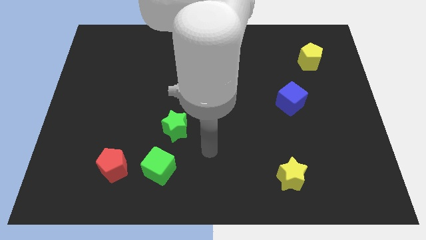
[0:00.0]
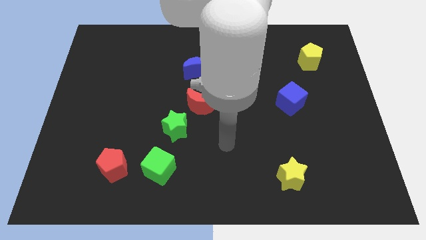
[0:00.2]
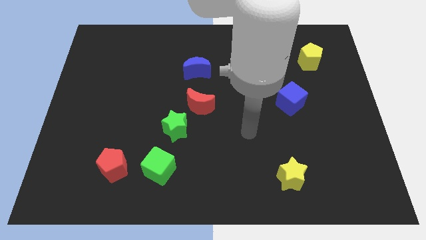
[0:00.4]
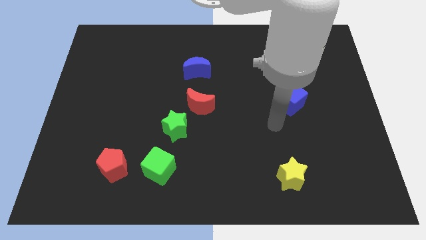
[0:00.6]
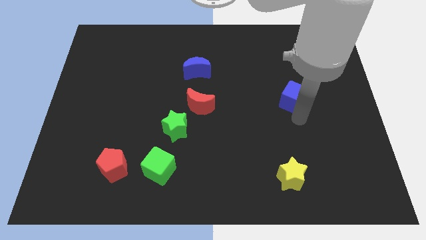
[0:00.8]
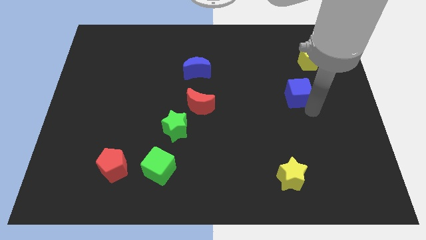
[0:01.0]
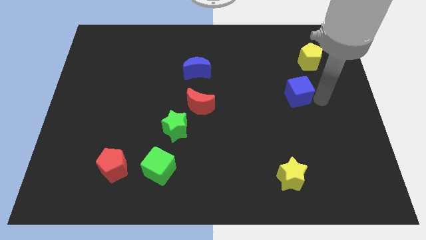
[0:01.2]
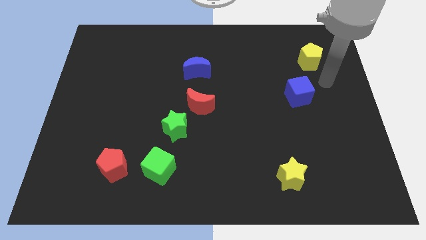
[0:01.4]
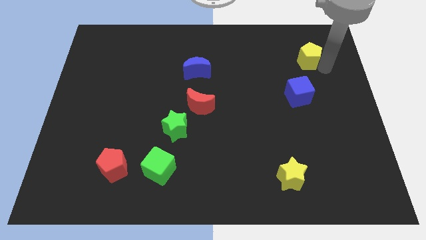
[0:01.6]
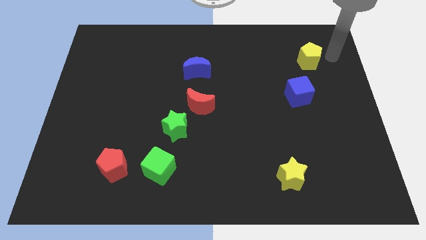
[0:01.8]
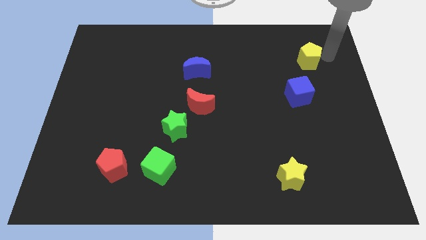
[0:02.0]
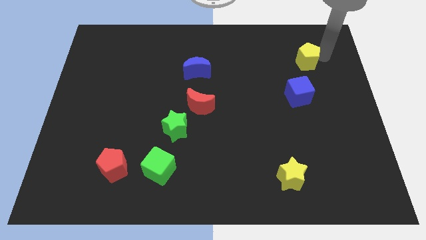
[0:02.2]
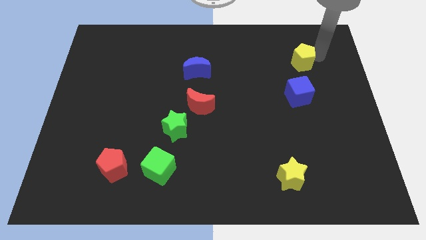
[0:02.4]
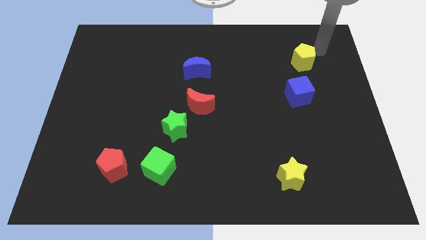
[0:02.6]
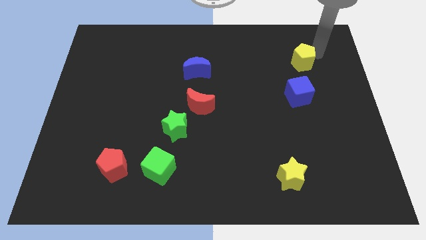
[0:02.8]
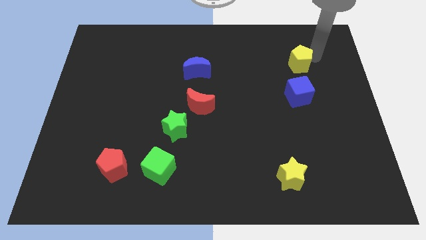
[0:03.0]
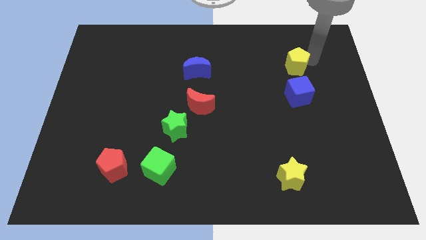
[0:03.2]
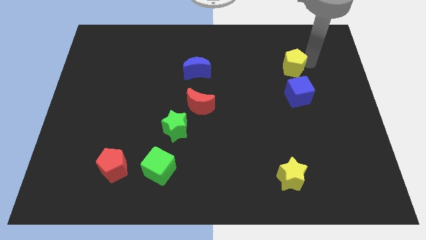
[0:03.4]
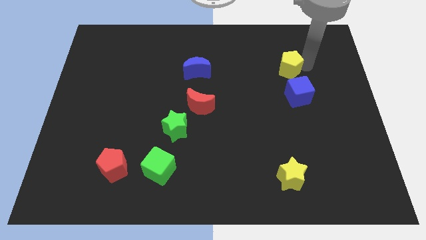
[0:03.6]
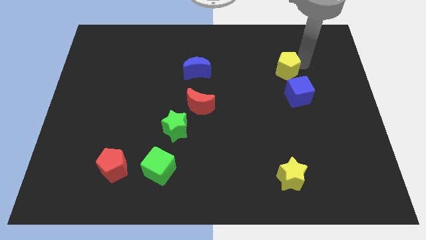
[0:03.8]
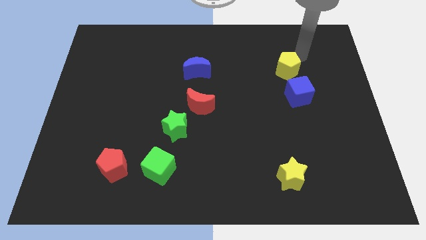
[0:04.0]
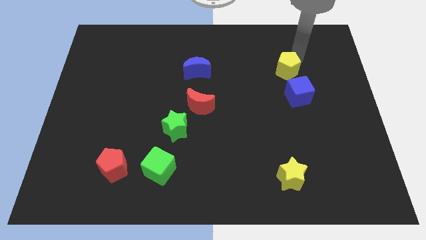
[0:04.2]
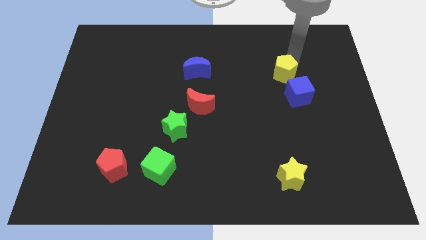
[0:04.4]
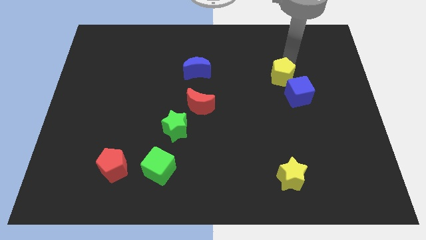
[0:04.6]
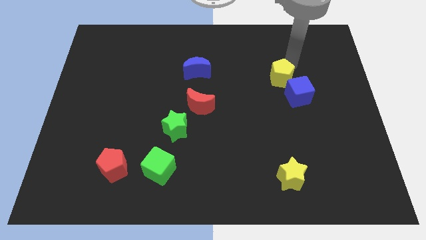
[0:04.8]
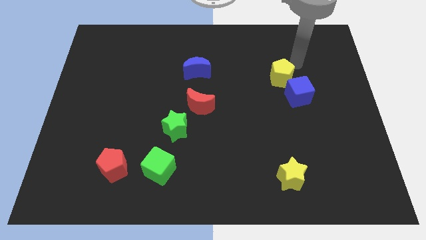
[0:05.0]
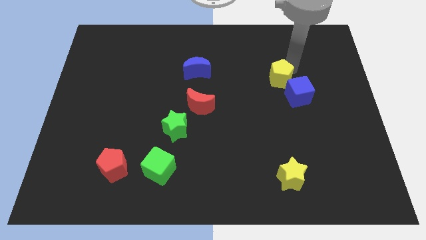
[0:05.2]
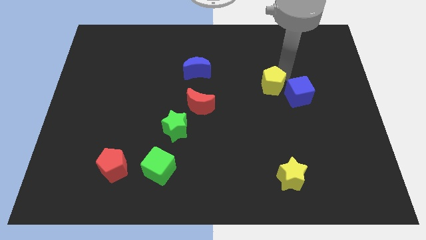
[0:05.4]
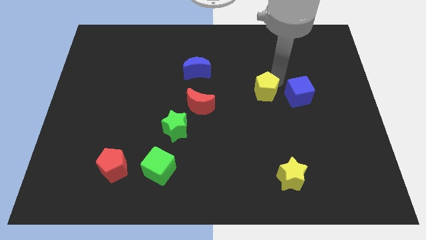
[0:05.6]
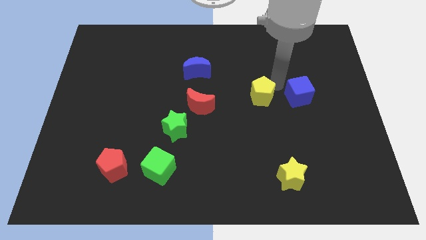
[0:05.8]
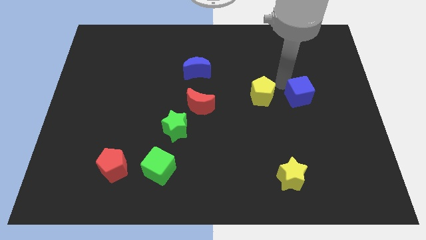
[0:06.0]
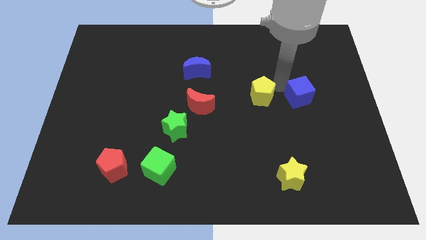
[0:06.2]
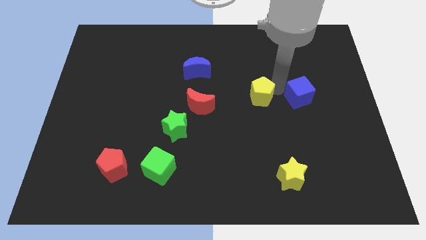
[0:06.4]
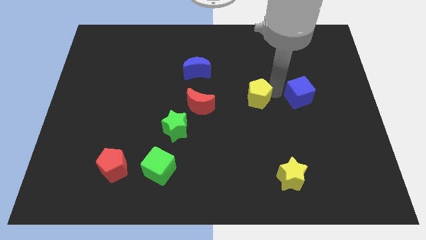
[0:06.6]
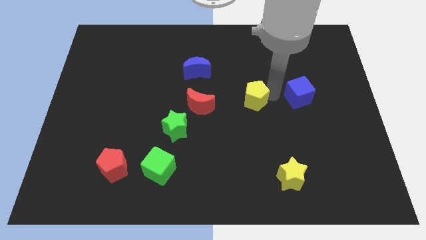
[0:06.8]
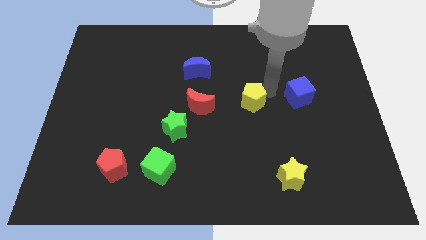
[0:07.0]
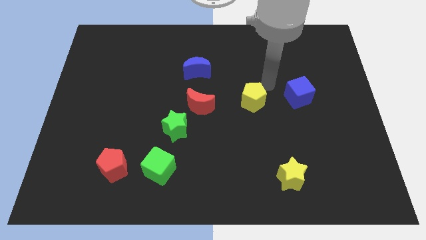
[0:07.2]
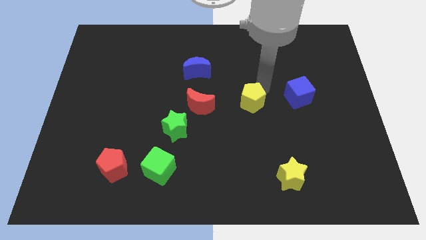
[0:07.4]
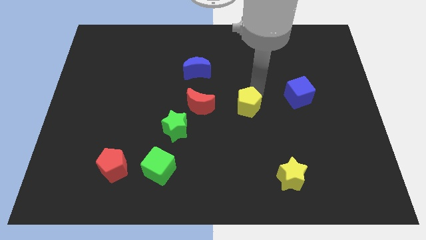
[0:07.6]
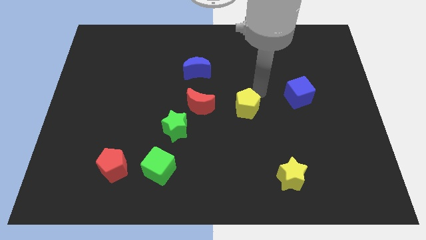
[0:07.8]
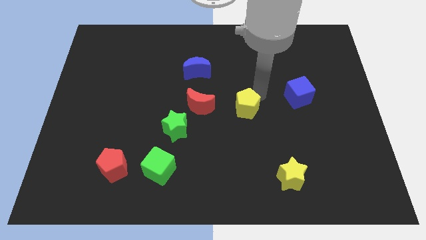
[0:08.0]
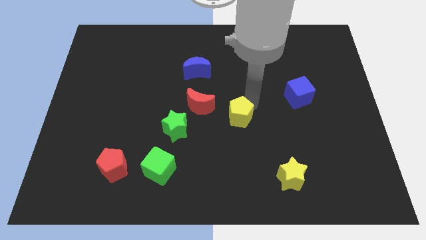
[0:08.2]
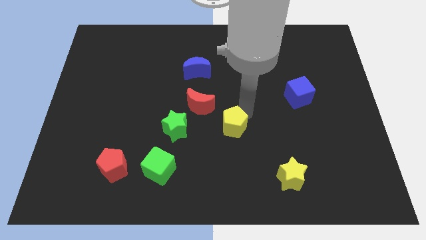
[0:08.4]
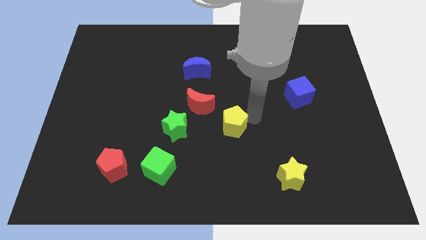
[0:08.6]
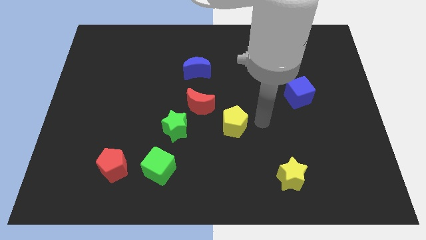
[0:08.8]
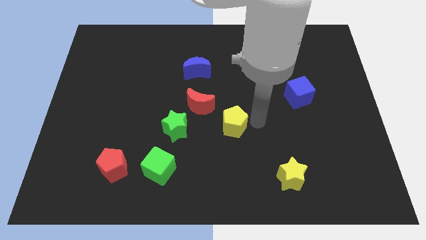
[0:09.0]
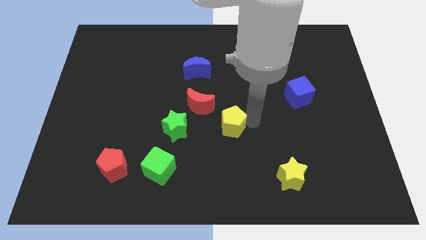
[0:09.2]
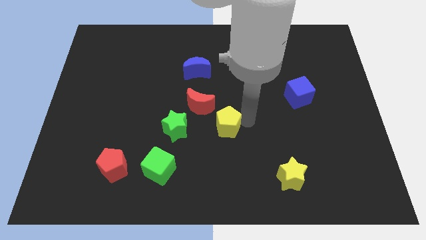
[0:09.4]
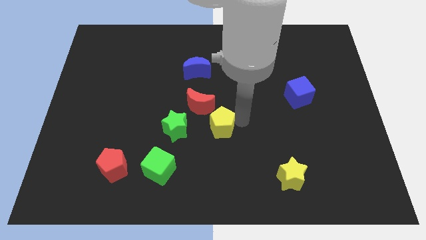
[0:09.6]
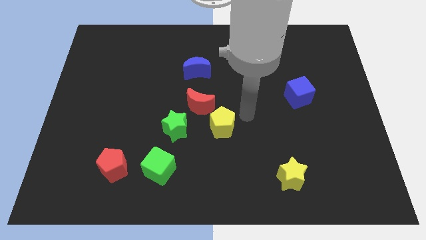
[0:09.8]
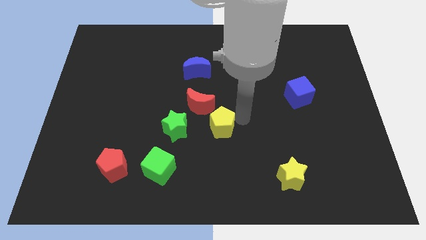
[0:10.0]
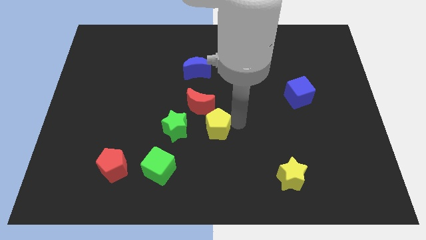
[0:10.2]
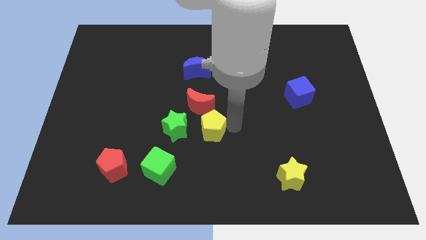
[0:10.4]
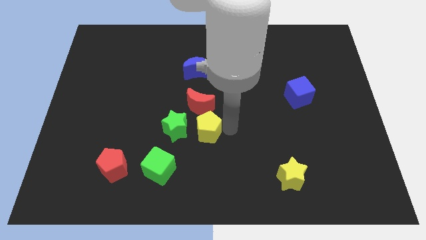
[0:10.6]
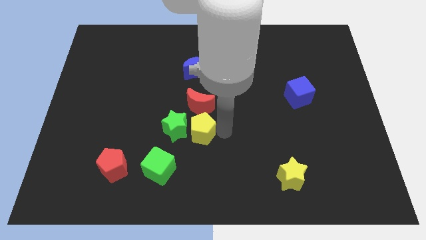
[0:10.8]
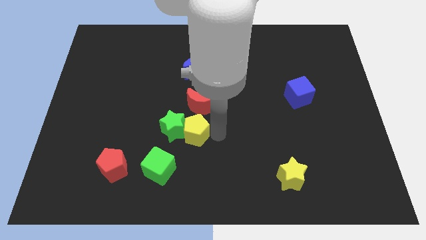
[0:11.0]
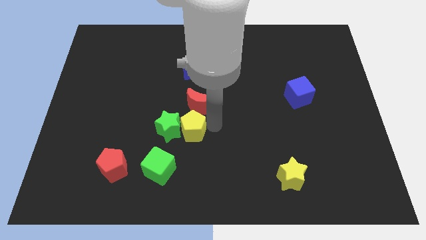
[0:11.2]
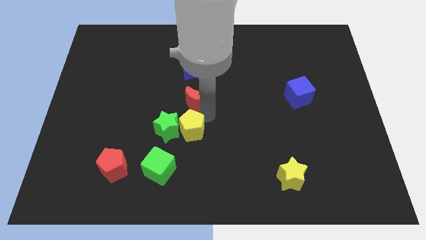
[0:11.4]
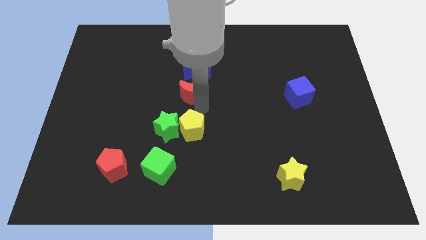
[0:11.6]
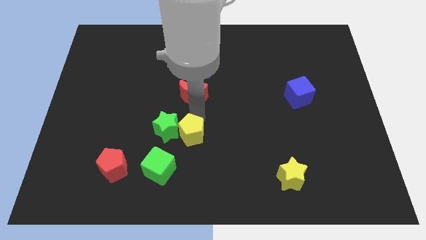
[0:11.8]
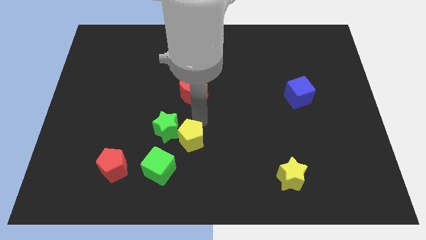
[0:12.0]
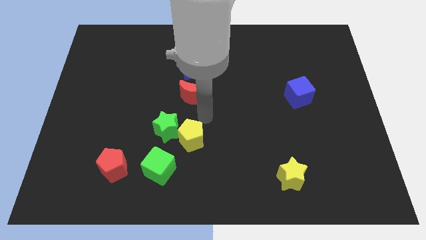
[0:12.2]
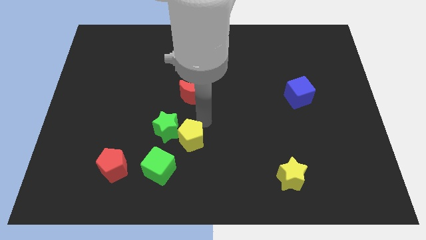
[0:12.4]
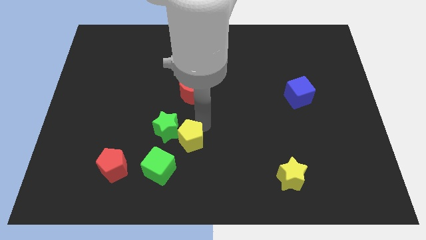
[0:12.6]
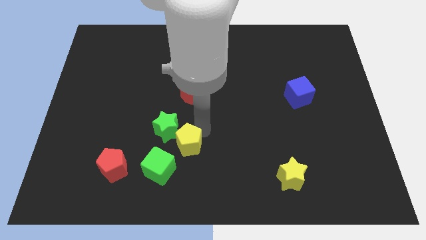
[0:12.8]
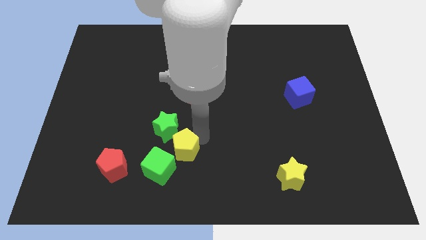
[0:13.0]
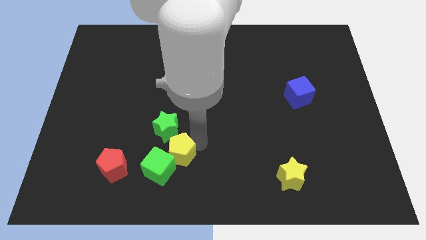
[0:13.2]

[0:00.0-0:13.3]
put the yellow pentagon towards the green cube

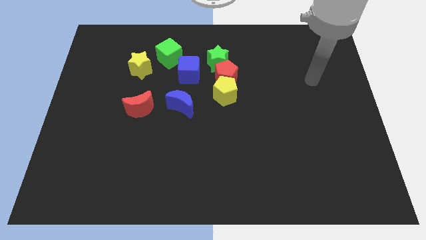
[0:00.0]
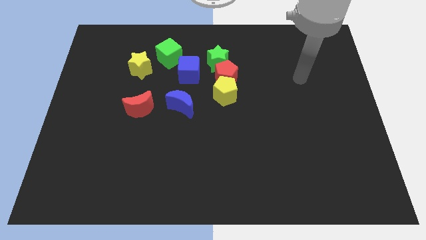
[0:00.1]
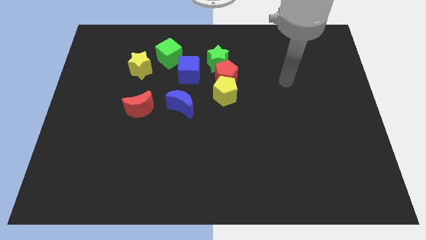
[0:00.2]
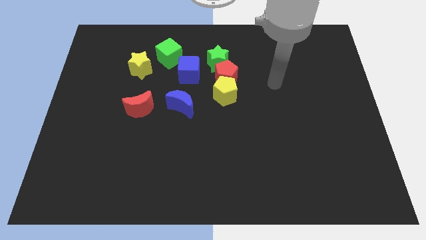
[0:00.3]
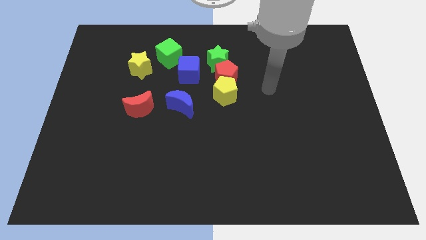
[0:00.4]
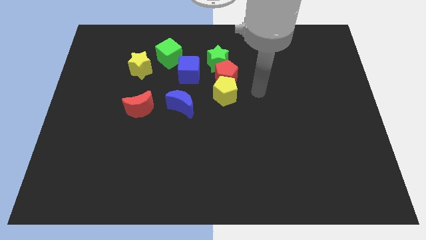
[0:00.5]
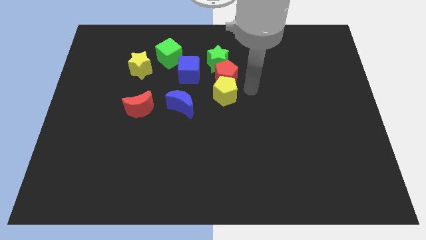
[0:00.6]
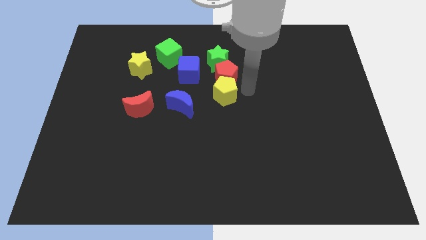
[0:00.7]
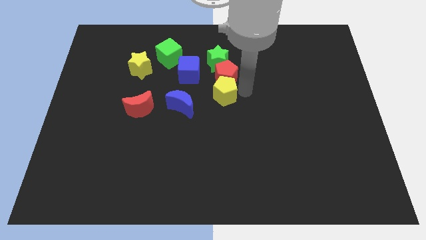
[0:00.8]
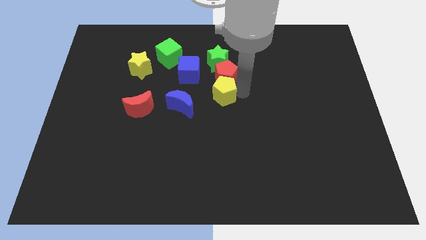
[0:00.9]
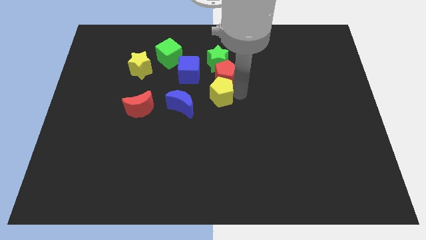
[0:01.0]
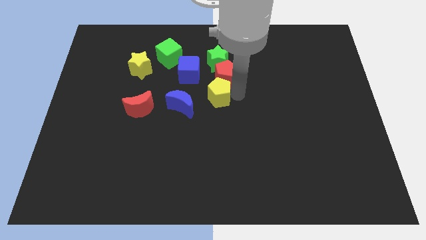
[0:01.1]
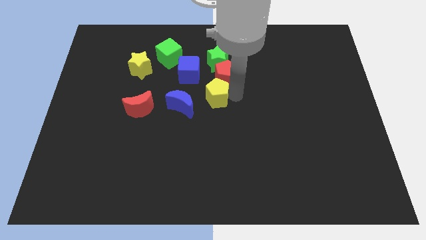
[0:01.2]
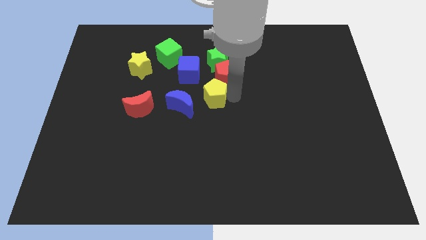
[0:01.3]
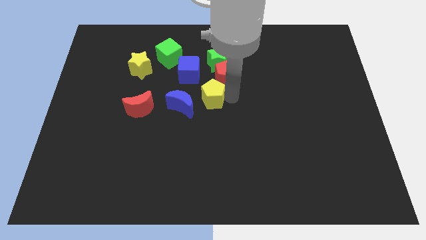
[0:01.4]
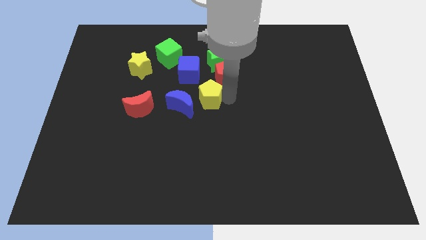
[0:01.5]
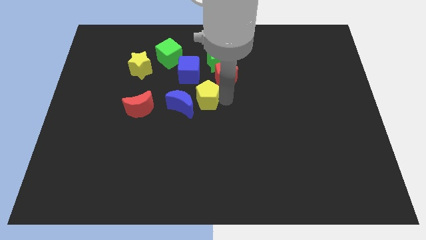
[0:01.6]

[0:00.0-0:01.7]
slide the yellow pentagon to the blue moon
